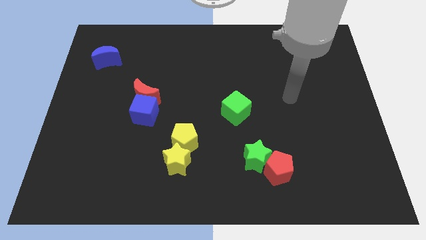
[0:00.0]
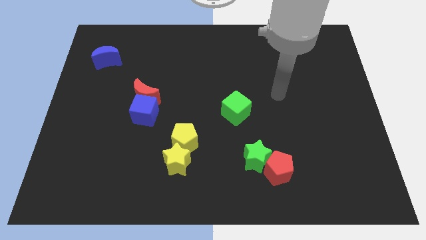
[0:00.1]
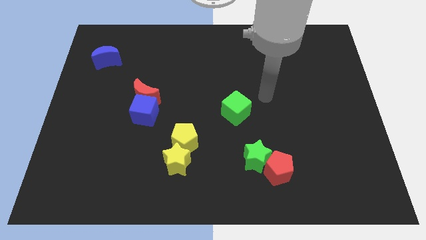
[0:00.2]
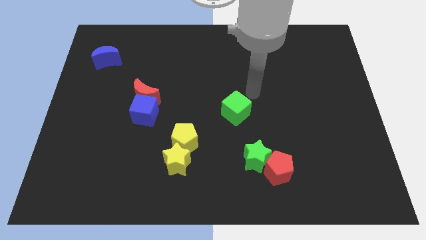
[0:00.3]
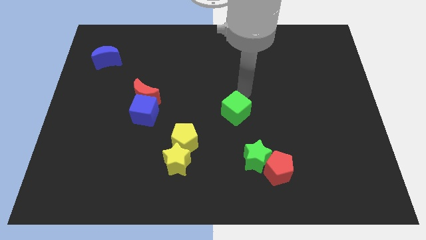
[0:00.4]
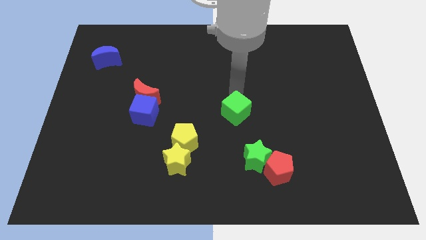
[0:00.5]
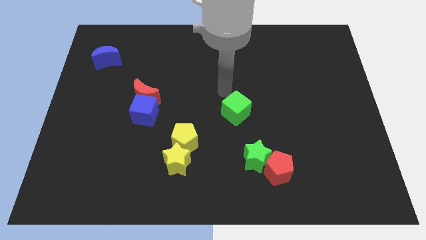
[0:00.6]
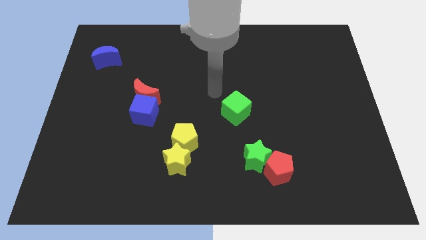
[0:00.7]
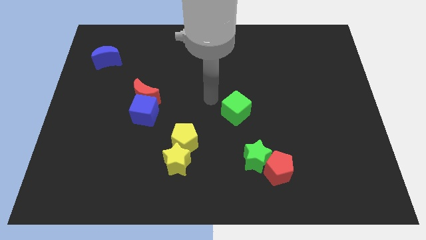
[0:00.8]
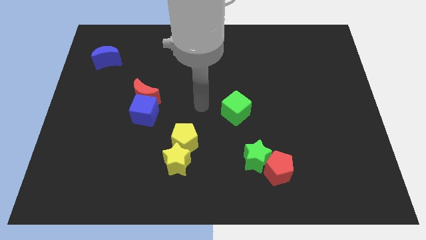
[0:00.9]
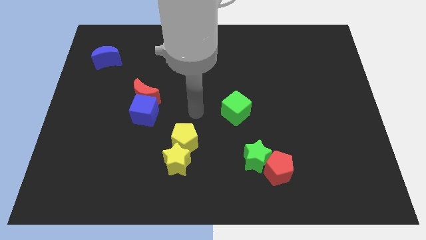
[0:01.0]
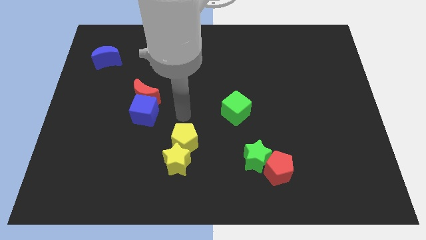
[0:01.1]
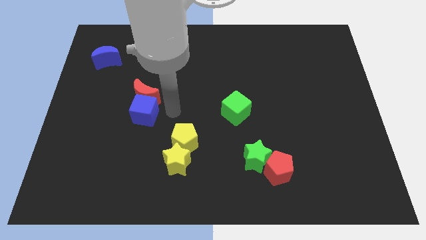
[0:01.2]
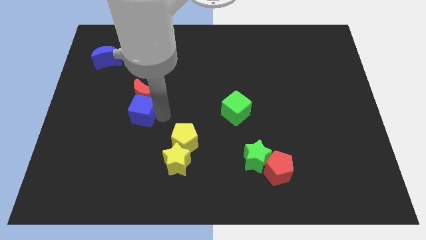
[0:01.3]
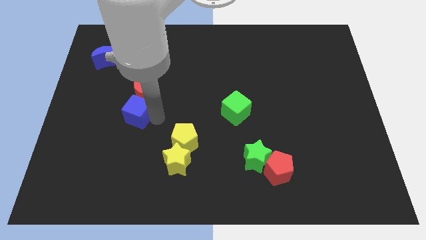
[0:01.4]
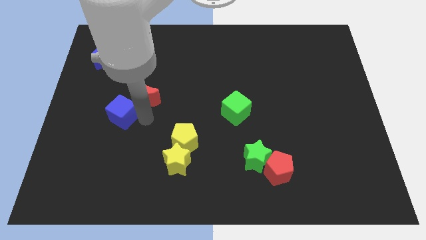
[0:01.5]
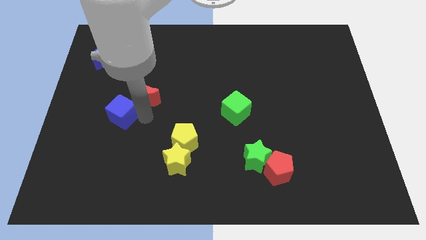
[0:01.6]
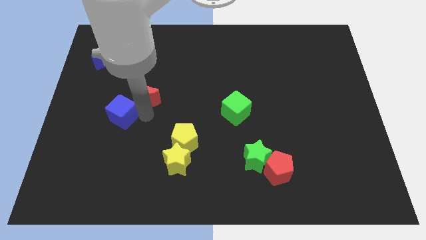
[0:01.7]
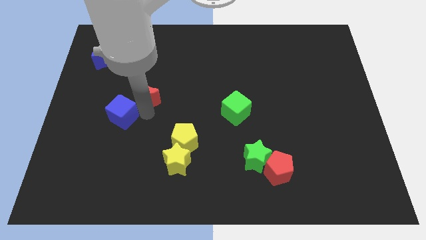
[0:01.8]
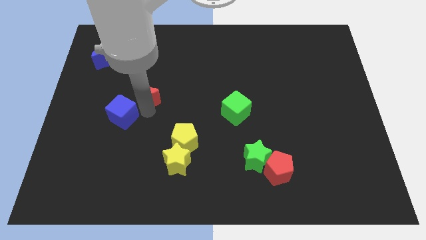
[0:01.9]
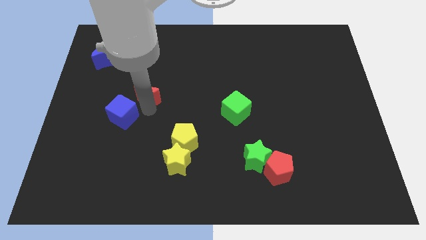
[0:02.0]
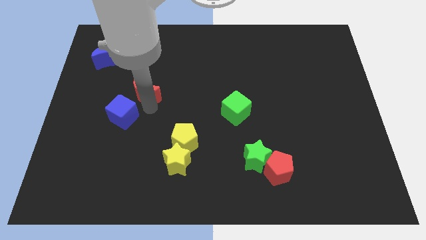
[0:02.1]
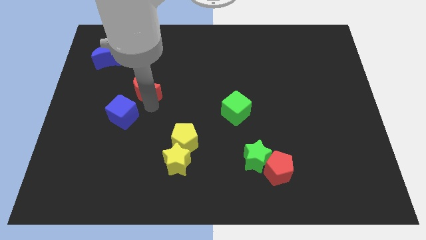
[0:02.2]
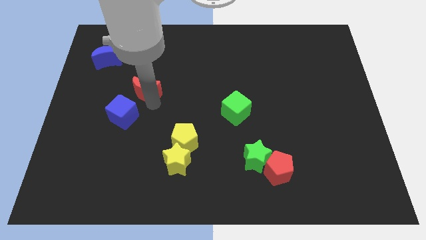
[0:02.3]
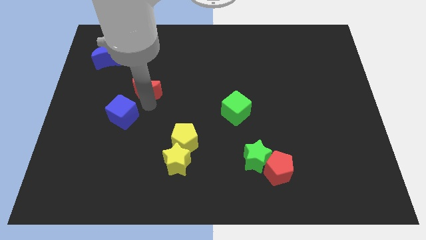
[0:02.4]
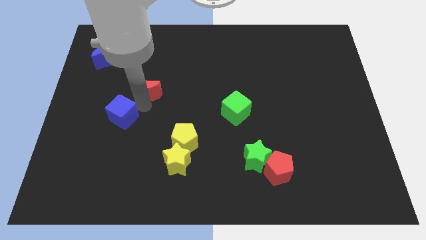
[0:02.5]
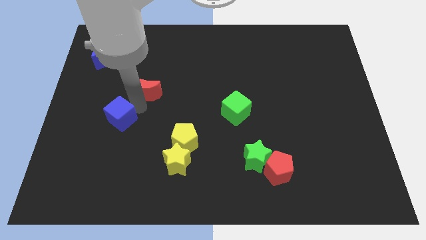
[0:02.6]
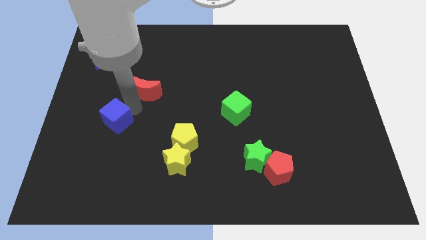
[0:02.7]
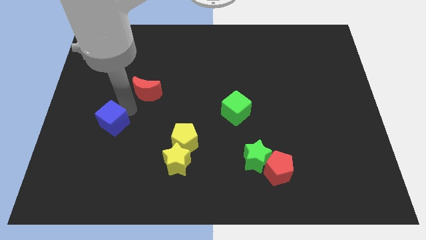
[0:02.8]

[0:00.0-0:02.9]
move the red moon away from the blue cube

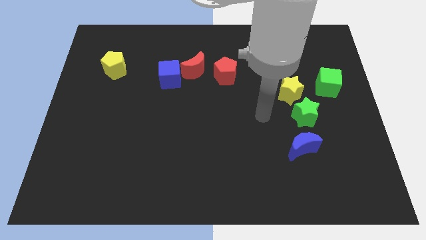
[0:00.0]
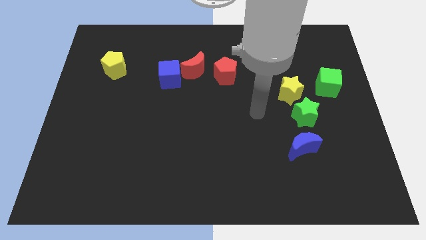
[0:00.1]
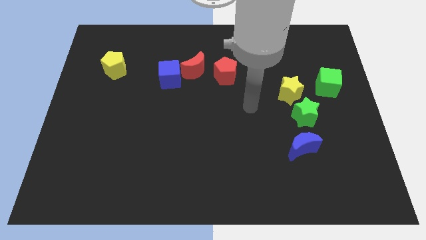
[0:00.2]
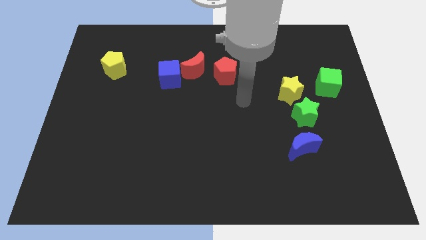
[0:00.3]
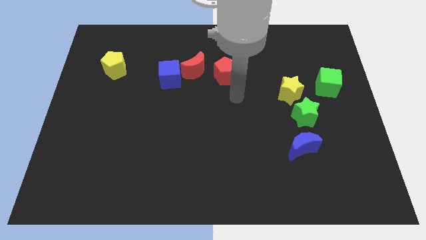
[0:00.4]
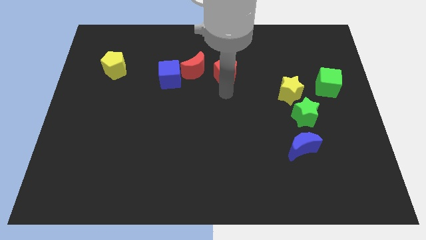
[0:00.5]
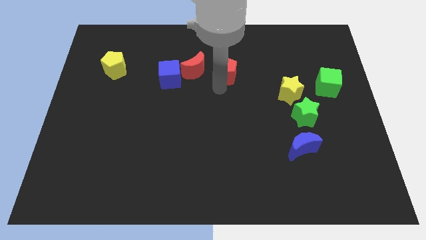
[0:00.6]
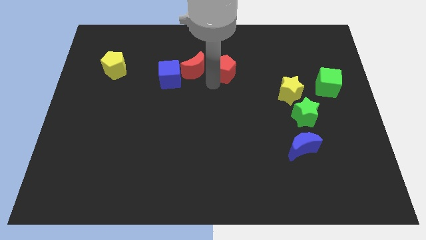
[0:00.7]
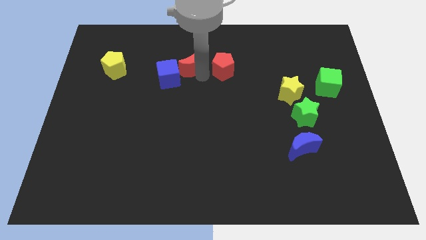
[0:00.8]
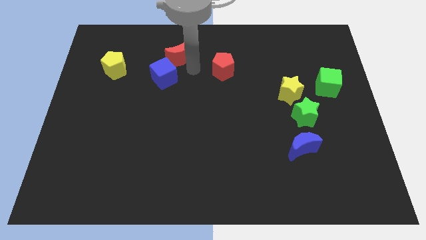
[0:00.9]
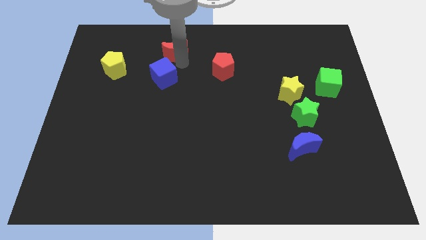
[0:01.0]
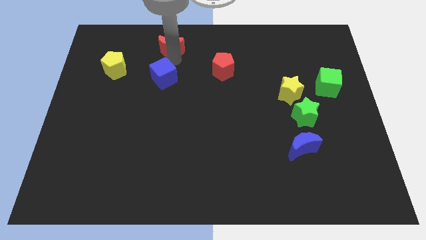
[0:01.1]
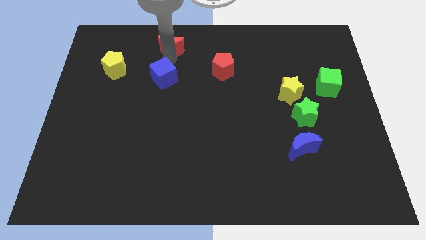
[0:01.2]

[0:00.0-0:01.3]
move the blue cube away from the red moon

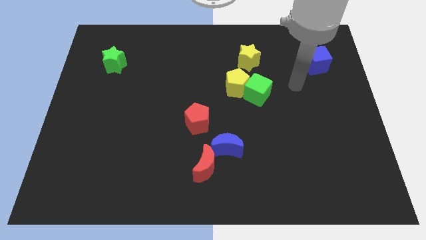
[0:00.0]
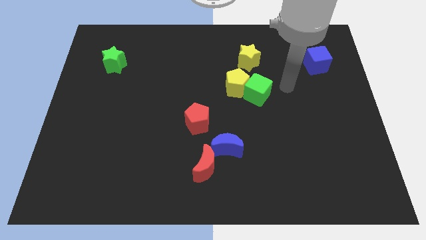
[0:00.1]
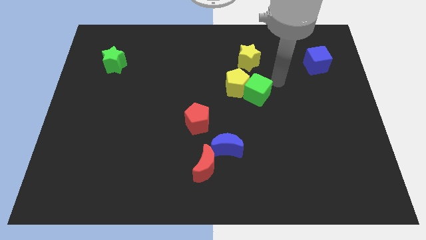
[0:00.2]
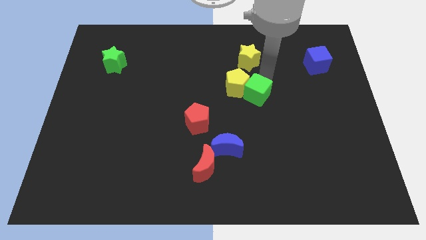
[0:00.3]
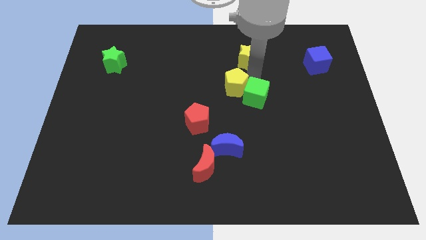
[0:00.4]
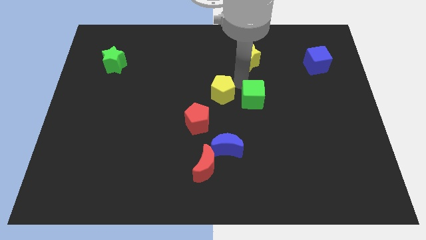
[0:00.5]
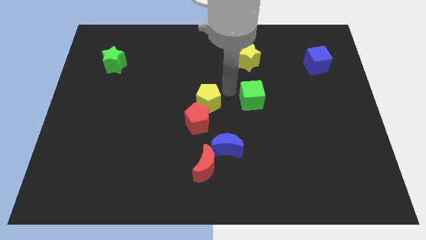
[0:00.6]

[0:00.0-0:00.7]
separate the green cube from the yellow pentagon

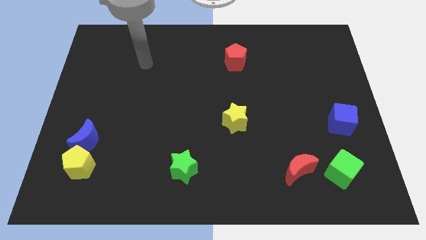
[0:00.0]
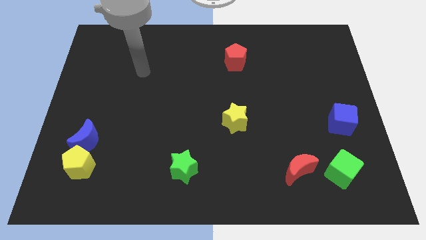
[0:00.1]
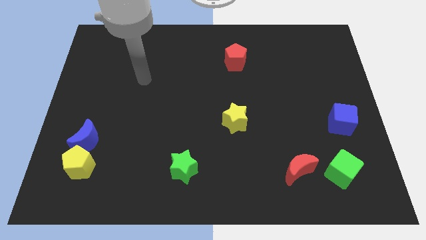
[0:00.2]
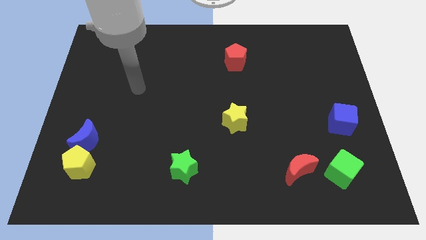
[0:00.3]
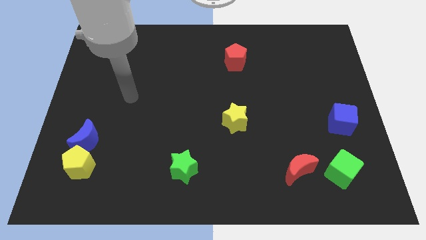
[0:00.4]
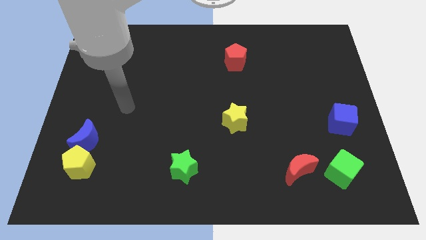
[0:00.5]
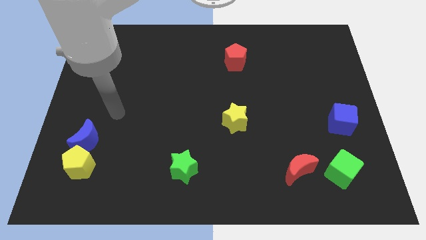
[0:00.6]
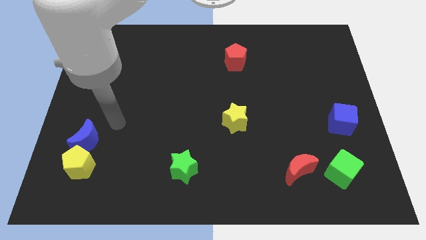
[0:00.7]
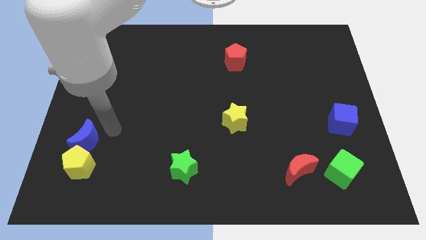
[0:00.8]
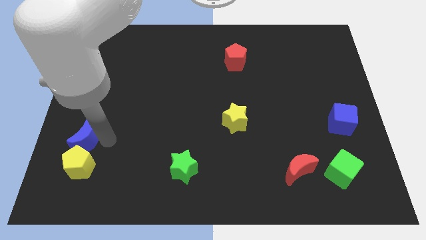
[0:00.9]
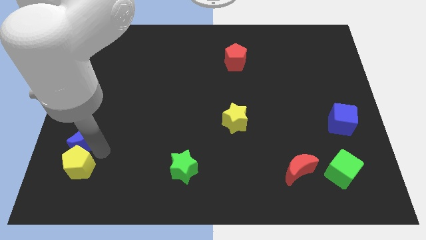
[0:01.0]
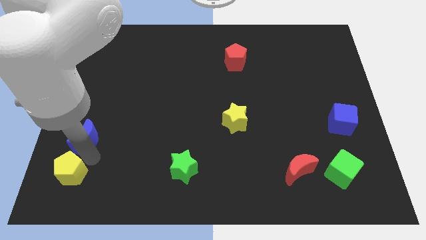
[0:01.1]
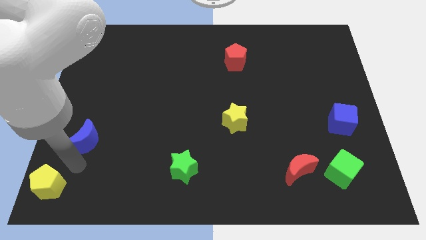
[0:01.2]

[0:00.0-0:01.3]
move the blue moon away from the yellow pentagon

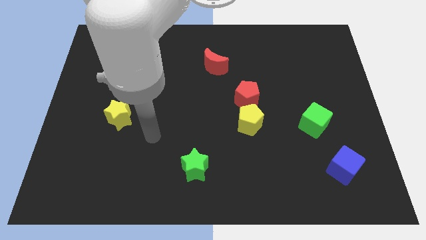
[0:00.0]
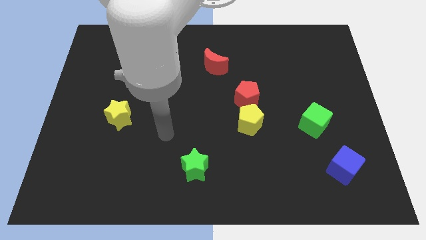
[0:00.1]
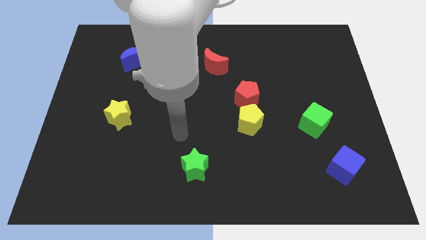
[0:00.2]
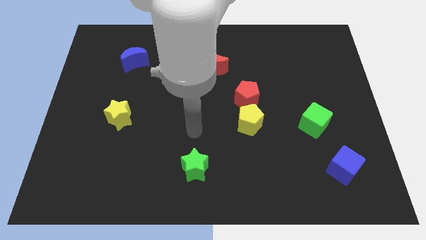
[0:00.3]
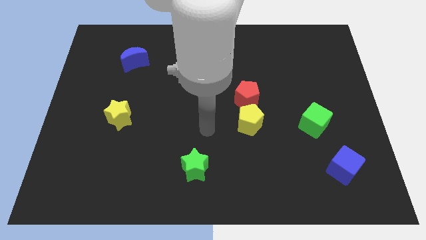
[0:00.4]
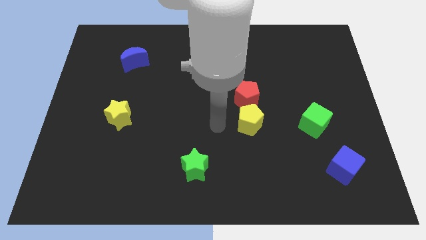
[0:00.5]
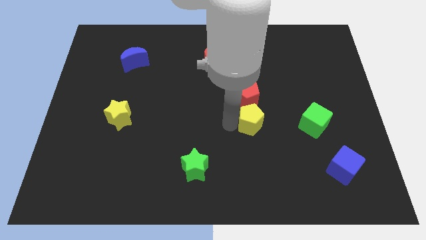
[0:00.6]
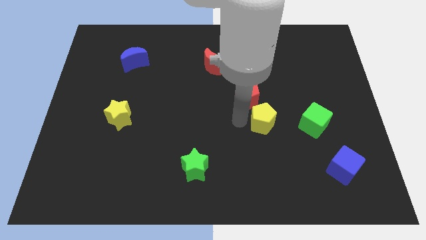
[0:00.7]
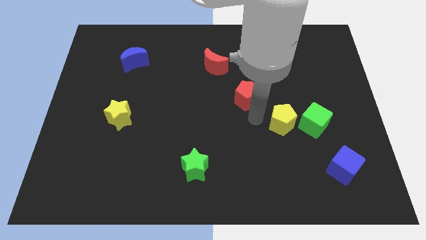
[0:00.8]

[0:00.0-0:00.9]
move the red pentagon away from the yellow pentagon

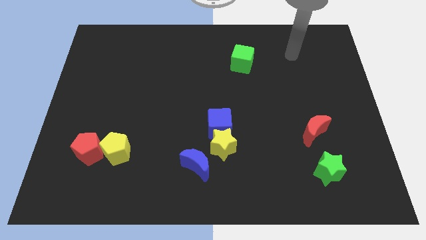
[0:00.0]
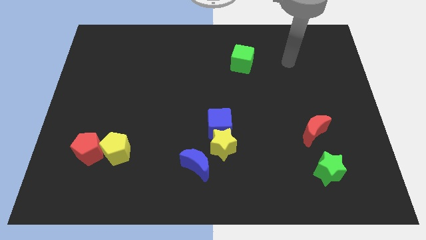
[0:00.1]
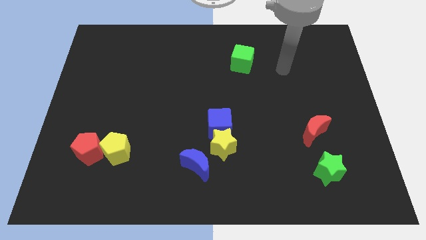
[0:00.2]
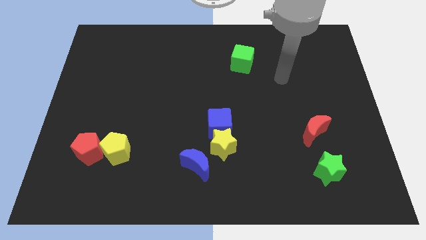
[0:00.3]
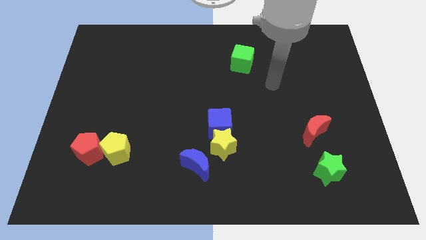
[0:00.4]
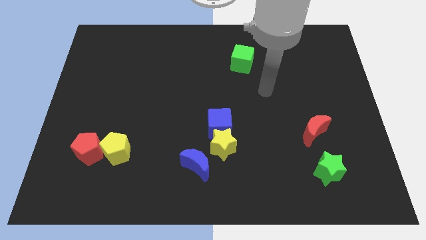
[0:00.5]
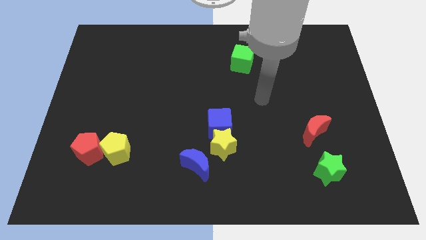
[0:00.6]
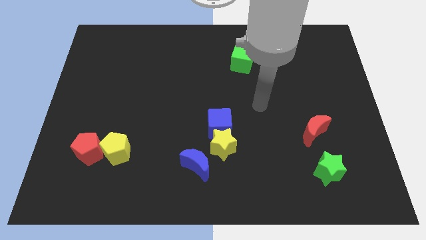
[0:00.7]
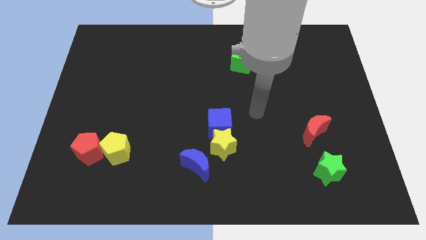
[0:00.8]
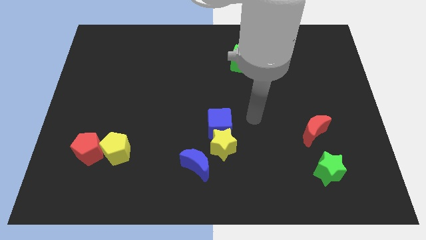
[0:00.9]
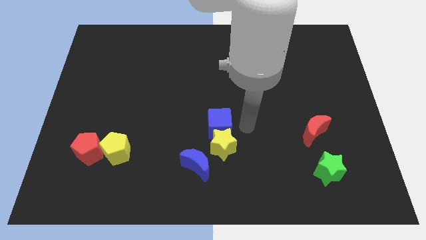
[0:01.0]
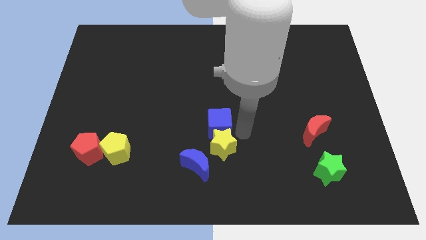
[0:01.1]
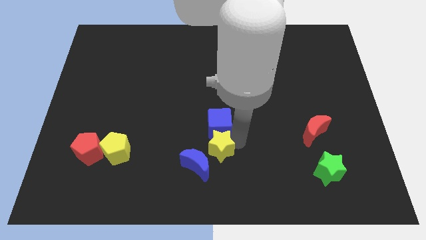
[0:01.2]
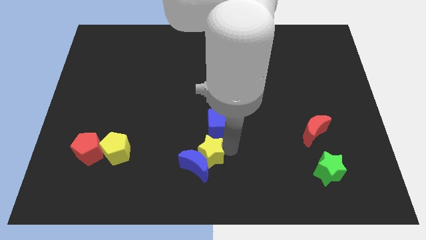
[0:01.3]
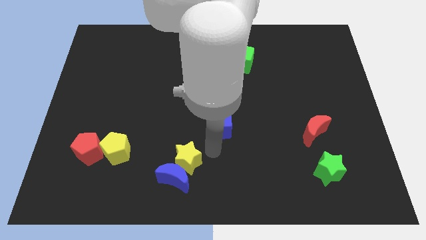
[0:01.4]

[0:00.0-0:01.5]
pull the blue cube apart from the yellow star

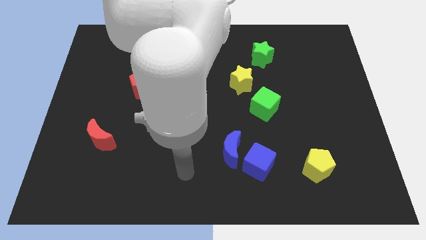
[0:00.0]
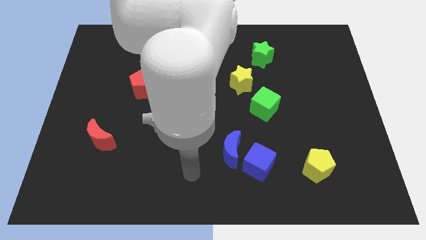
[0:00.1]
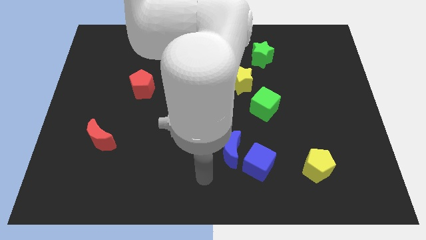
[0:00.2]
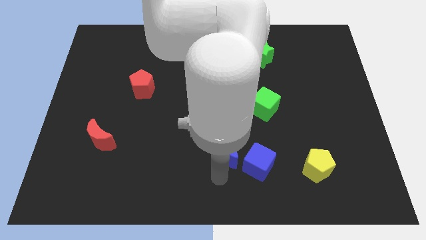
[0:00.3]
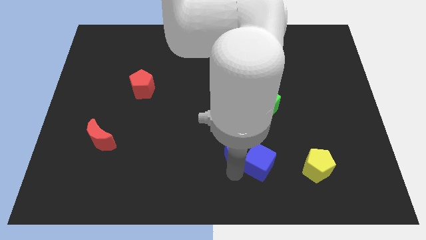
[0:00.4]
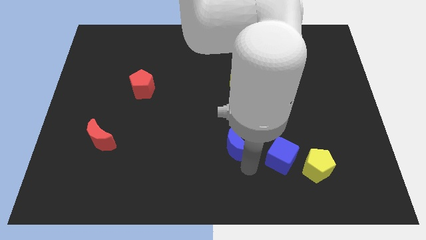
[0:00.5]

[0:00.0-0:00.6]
move the blue moon away from the blue cube
